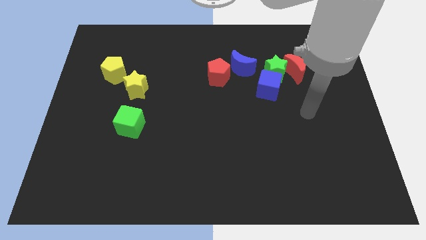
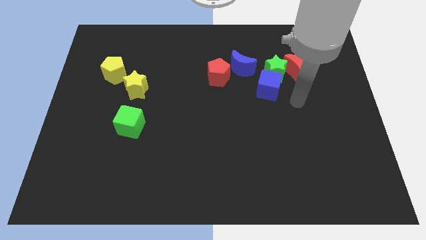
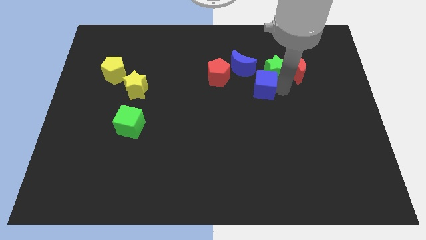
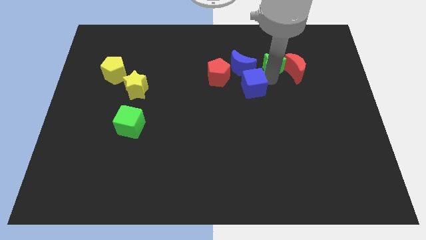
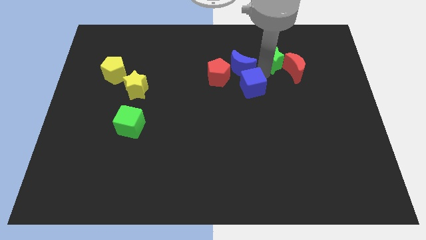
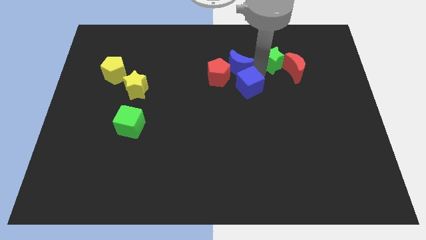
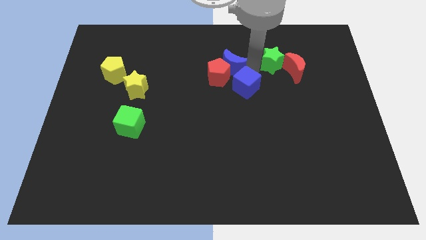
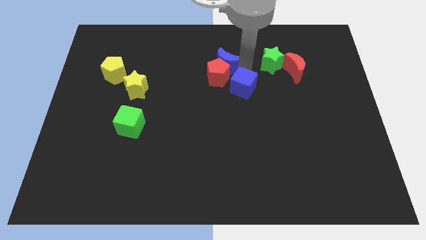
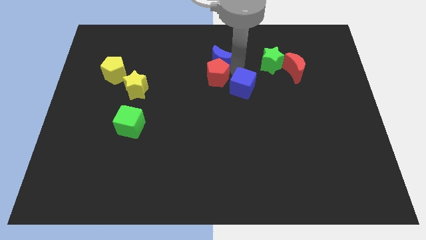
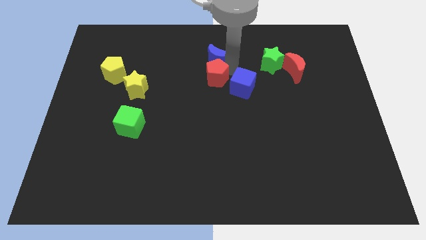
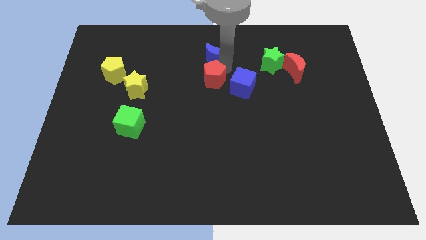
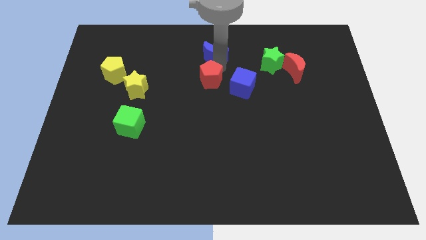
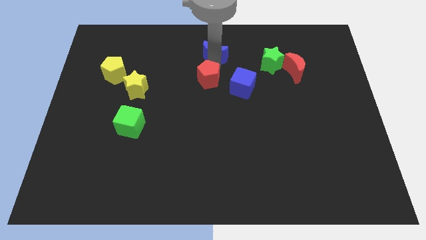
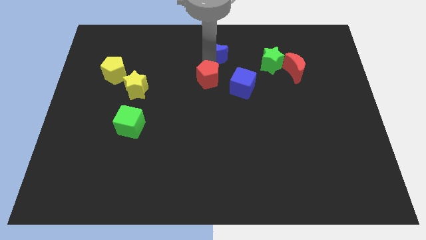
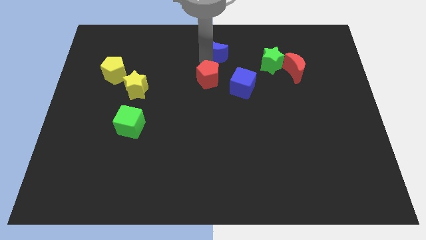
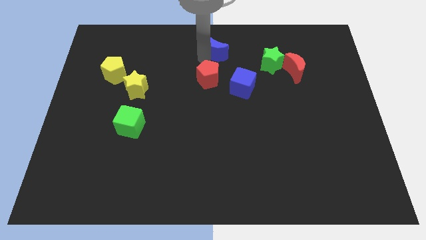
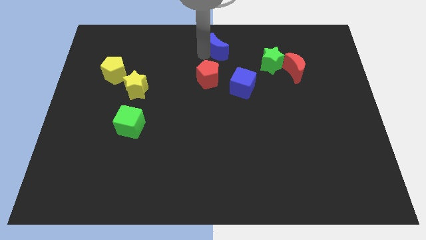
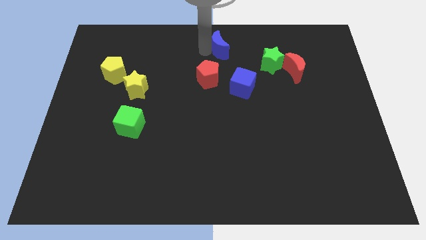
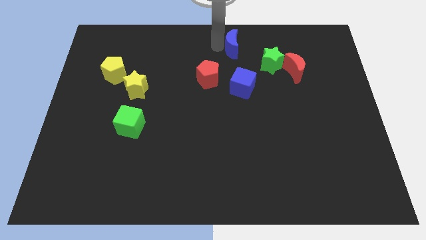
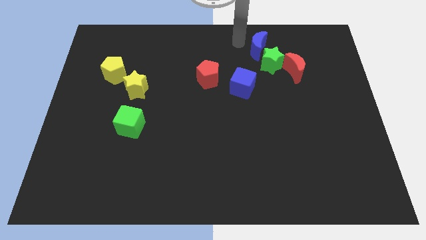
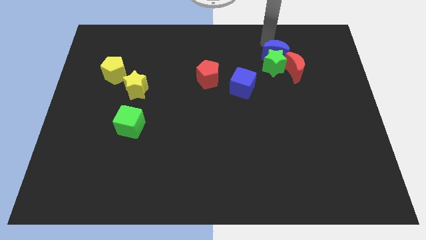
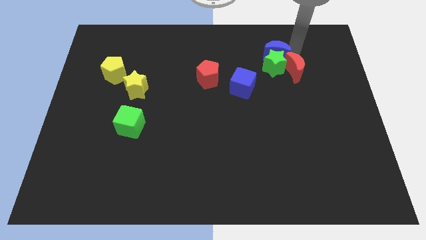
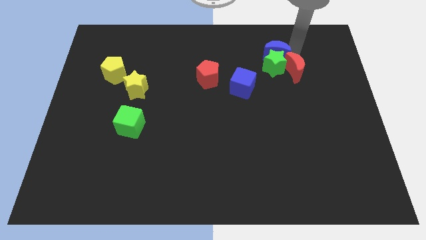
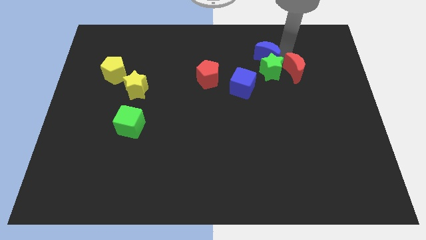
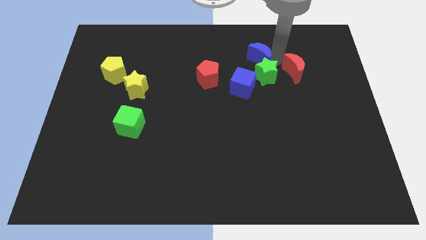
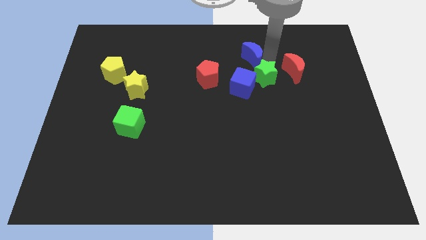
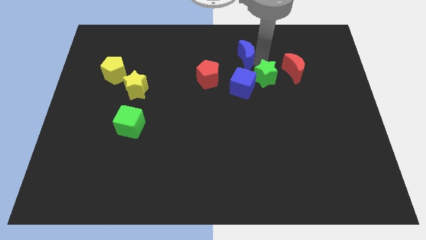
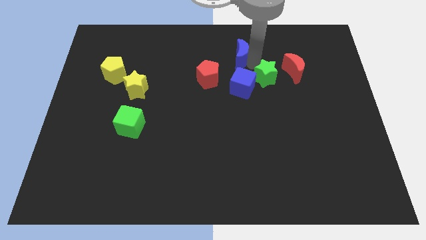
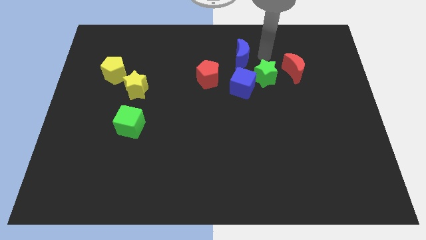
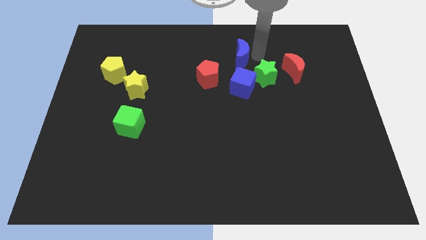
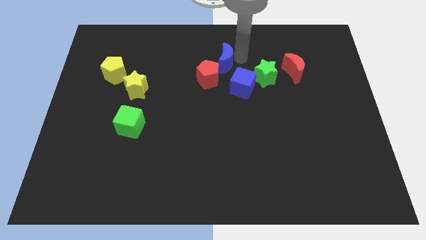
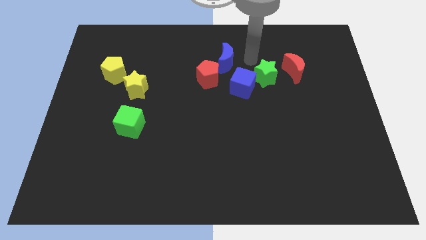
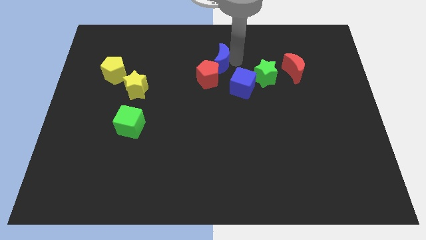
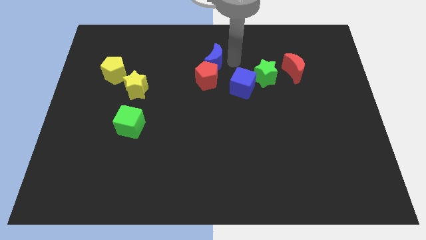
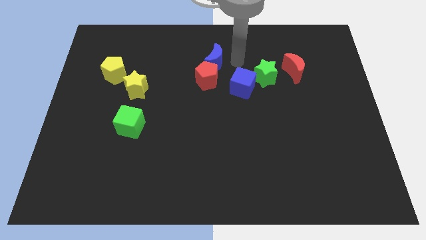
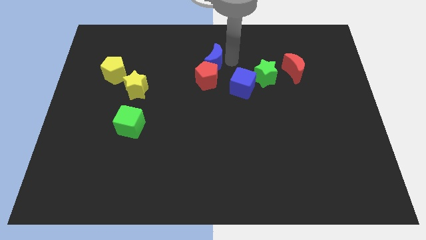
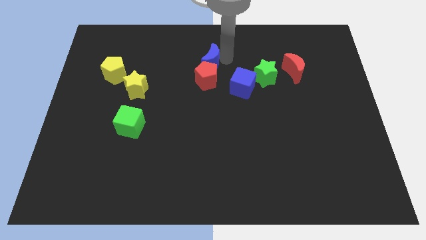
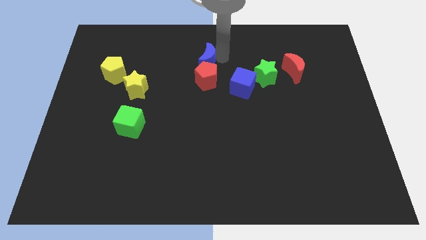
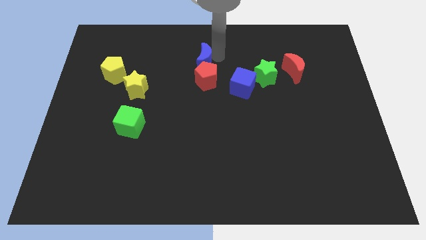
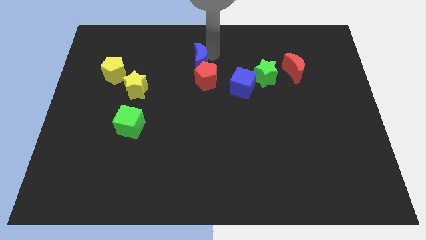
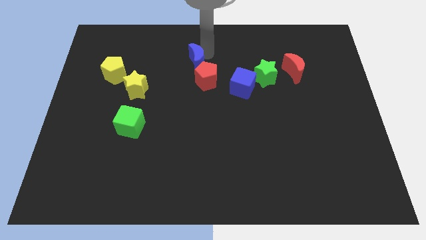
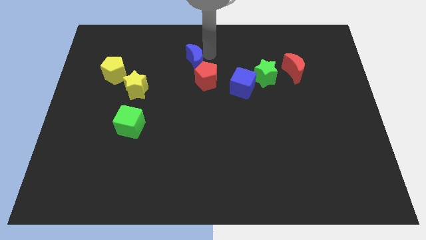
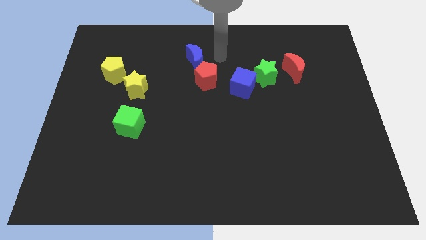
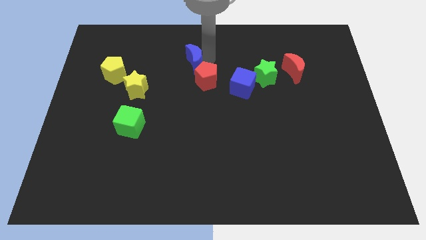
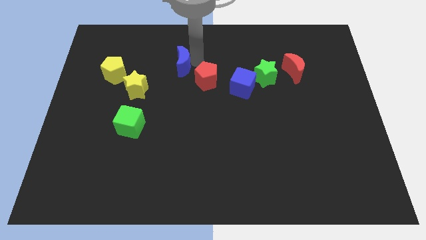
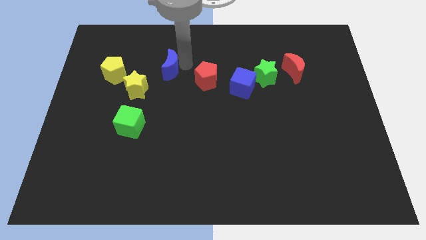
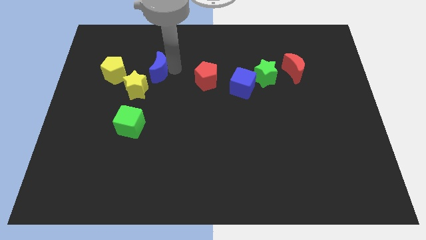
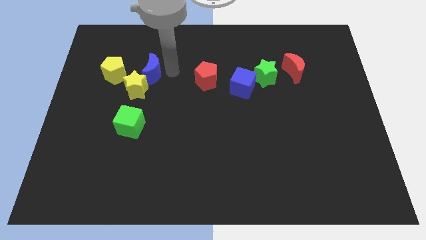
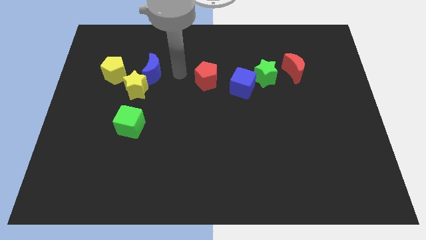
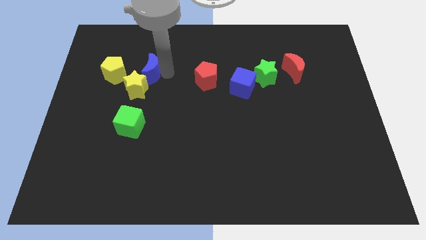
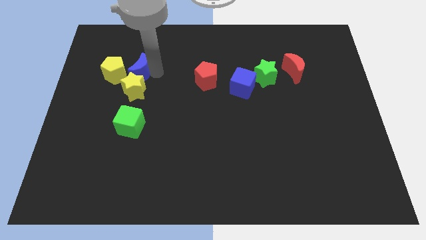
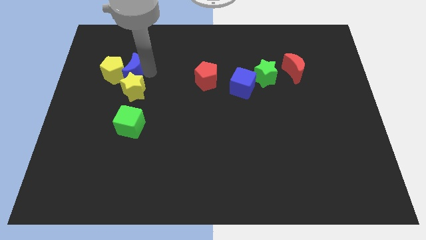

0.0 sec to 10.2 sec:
push the blue moon next to the yellow pentagon

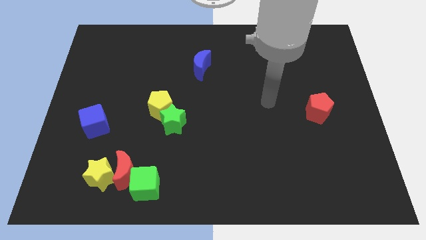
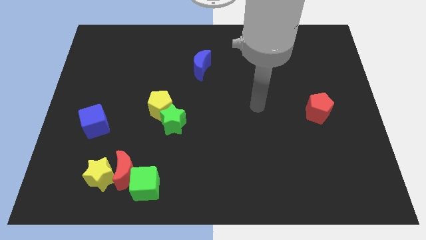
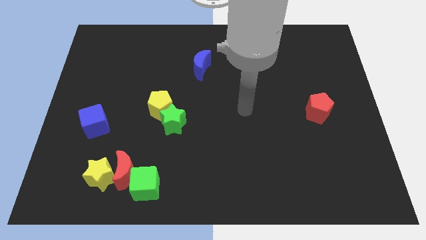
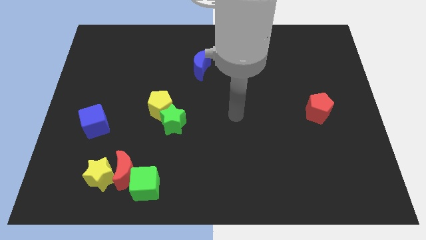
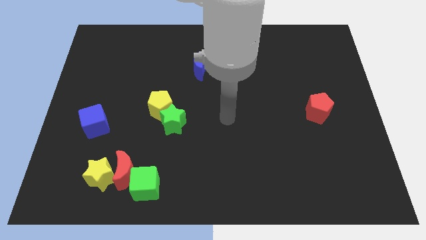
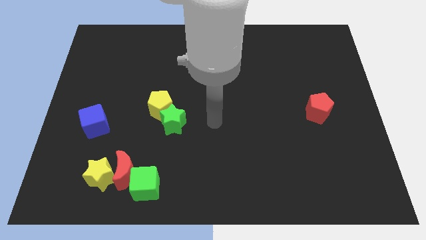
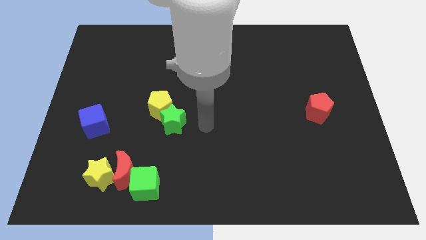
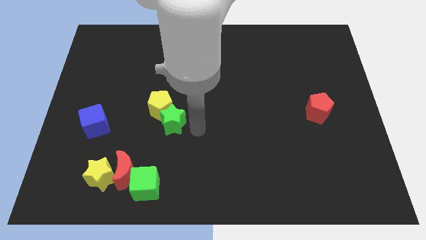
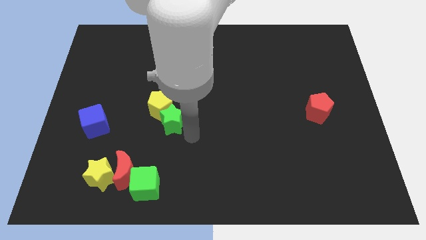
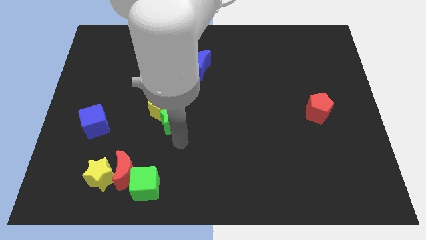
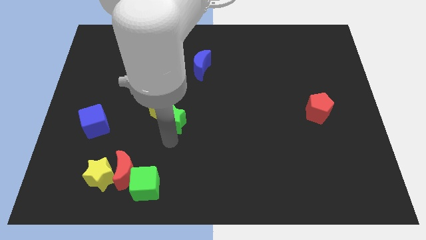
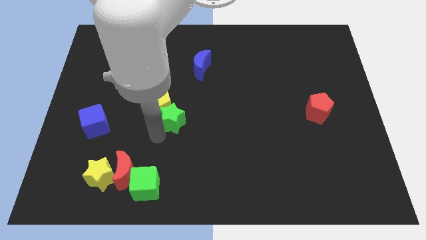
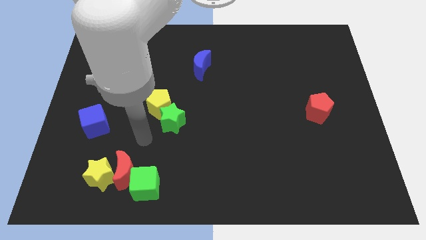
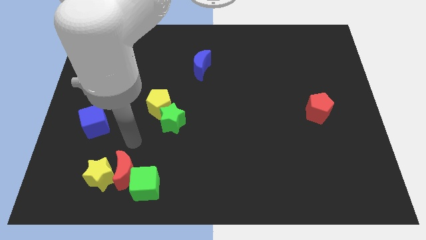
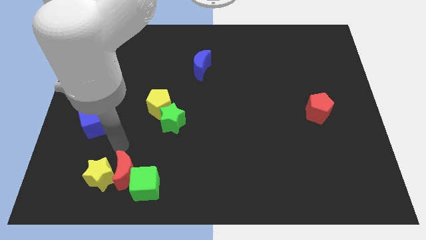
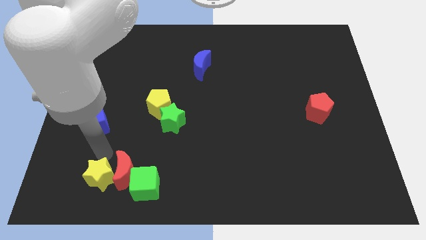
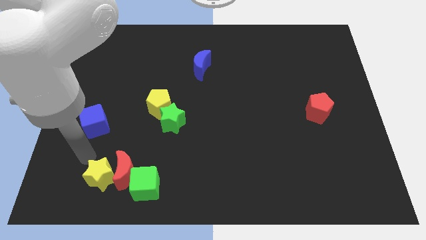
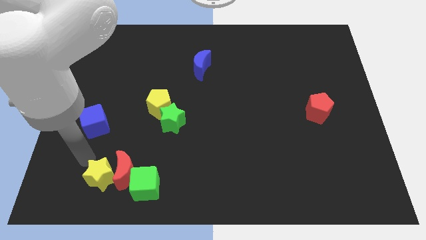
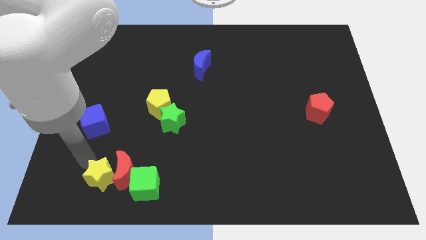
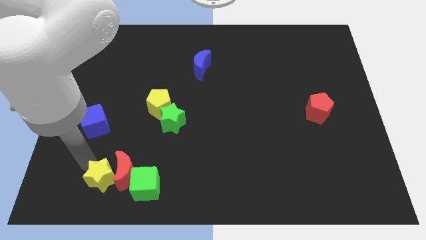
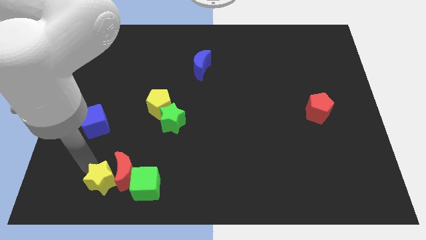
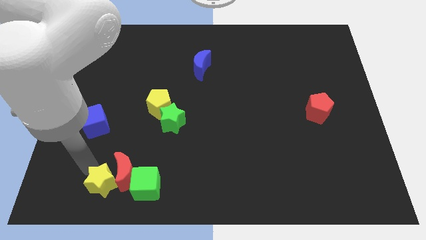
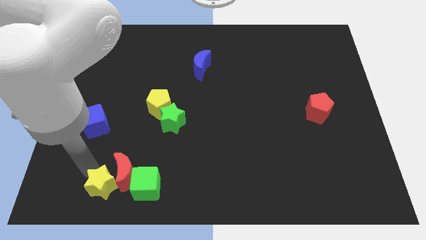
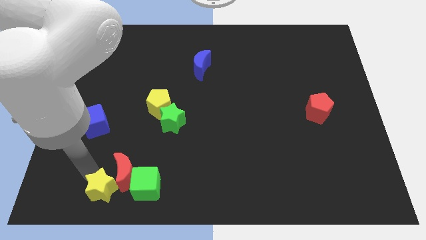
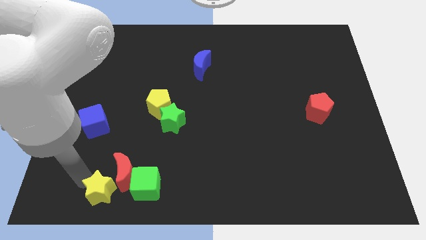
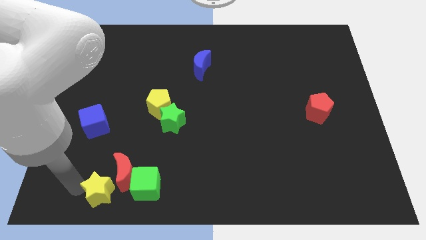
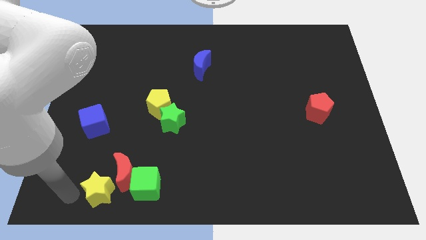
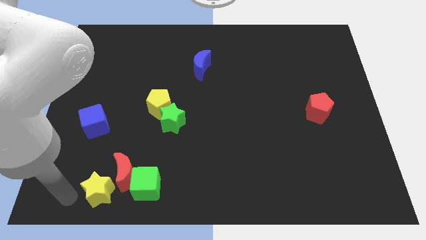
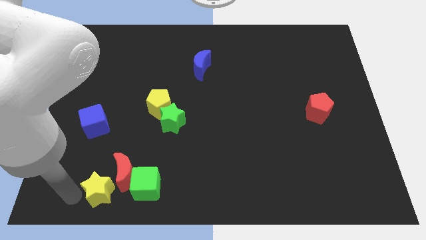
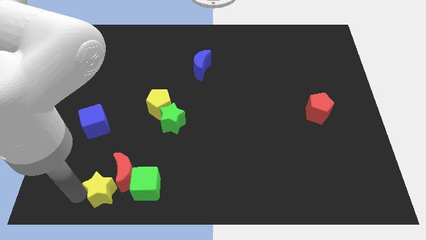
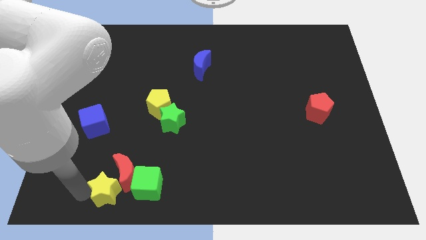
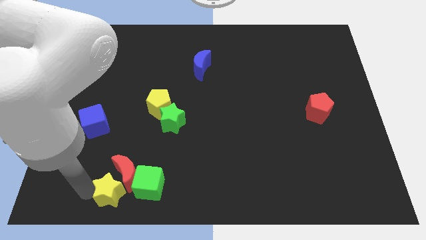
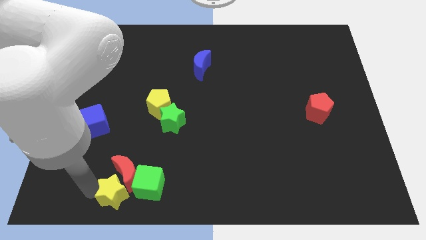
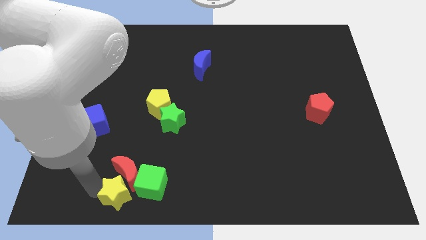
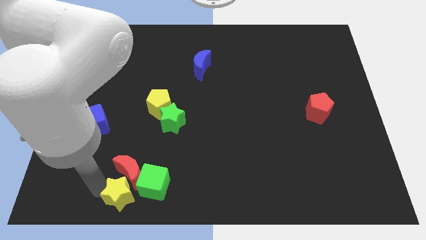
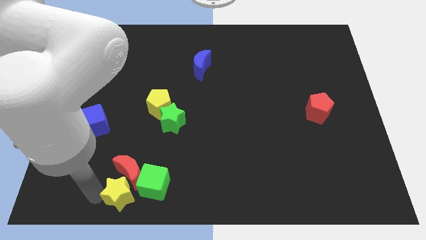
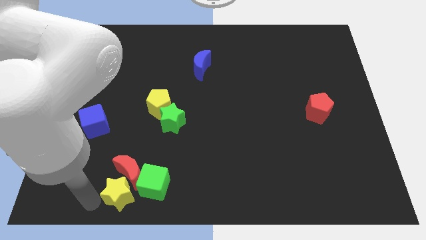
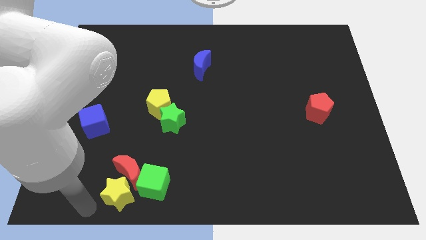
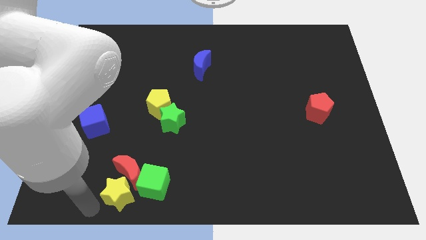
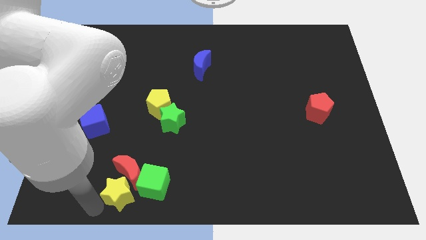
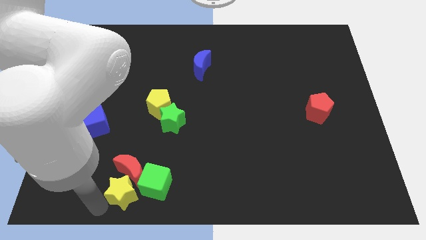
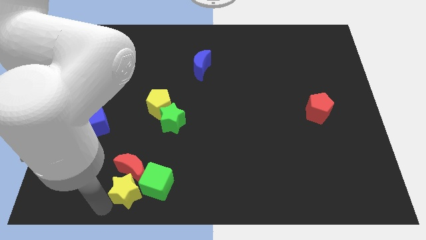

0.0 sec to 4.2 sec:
move the yellow star towards the green cube
